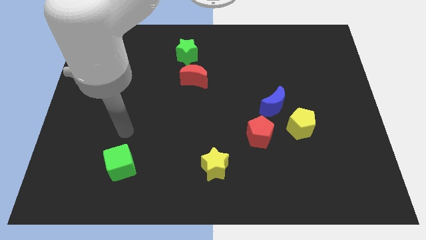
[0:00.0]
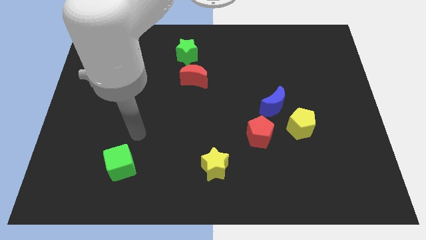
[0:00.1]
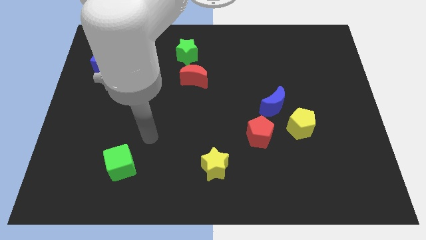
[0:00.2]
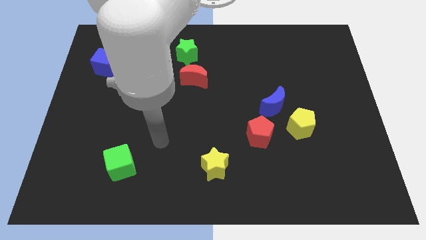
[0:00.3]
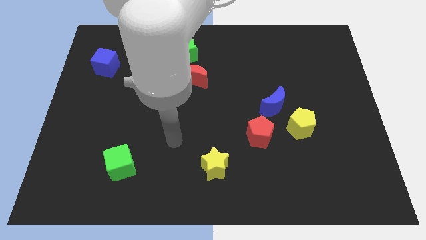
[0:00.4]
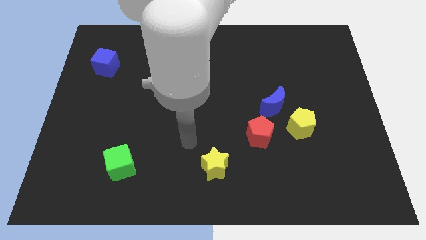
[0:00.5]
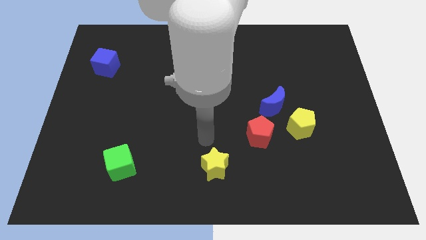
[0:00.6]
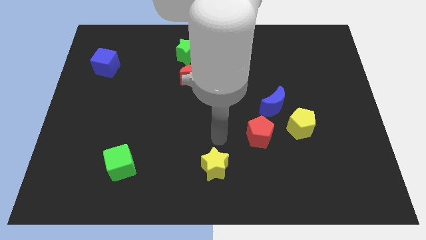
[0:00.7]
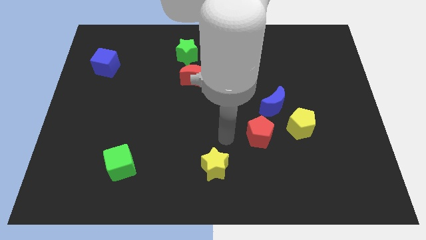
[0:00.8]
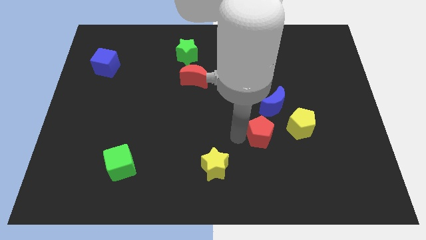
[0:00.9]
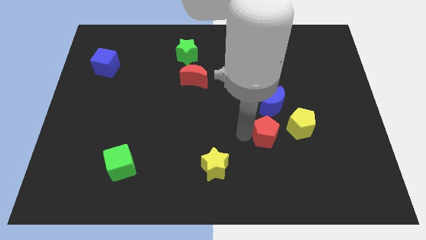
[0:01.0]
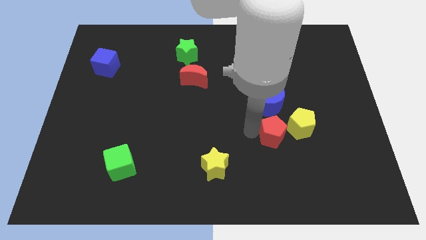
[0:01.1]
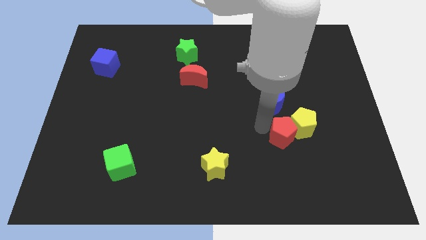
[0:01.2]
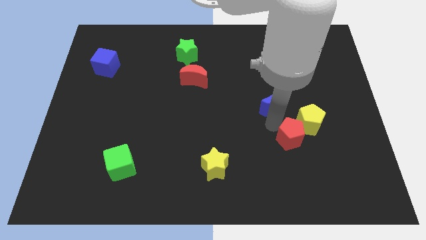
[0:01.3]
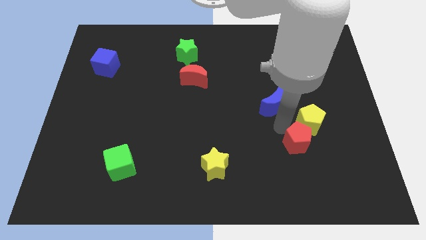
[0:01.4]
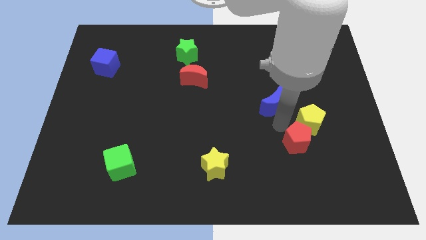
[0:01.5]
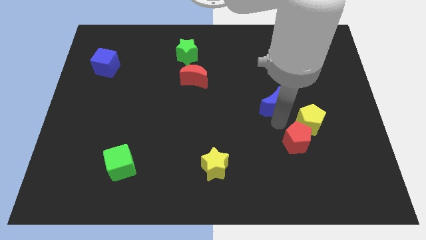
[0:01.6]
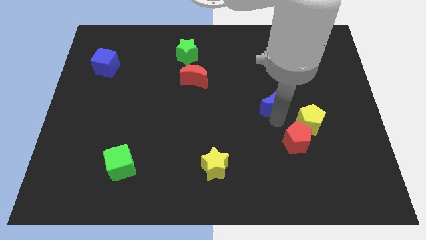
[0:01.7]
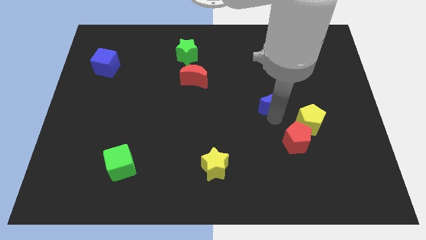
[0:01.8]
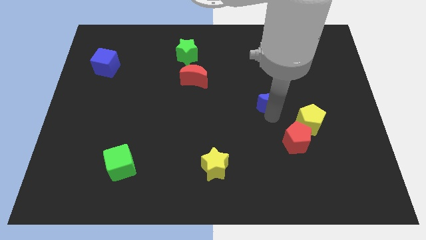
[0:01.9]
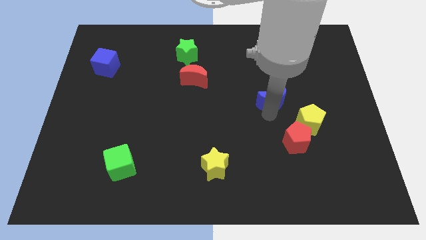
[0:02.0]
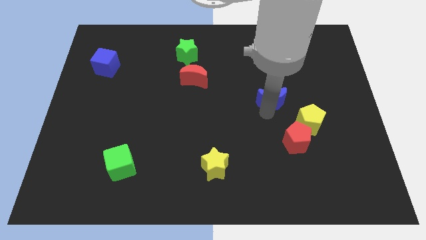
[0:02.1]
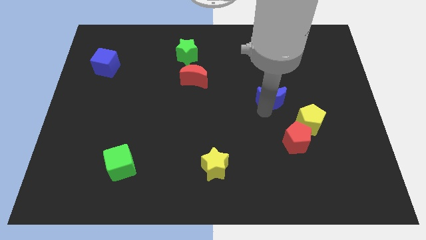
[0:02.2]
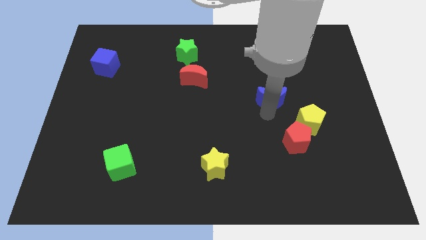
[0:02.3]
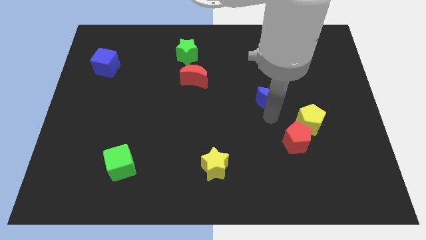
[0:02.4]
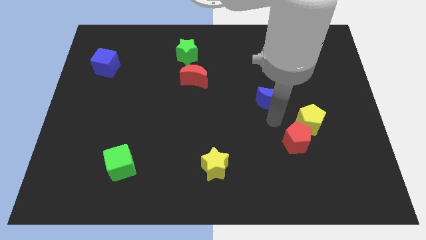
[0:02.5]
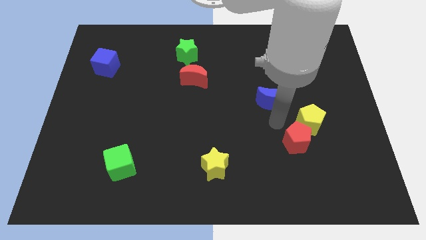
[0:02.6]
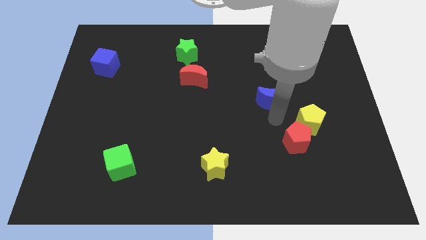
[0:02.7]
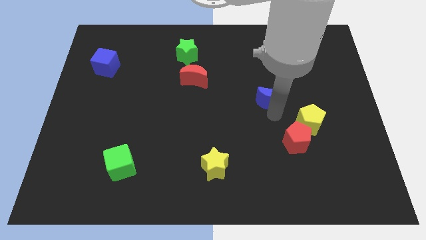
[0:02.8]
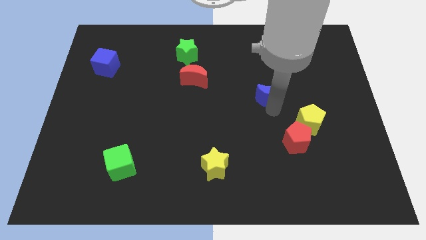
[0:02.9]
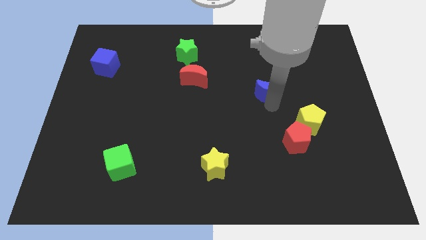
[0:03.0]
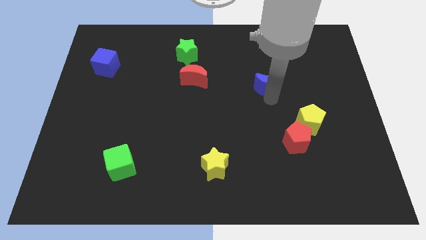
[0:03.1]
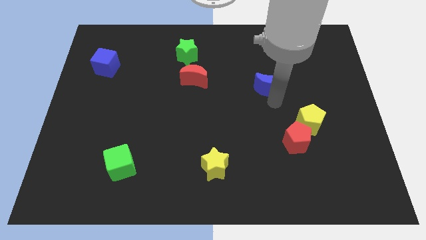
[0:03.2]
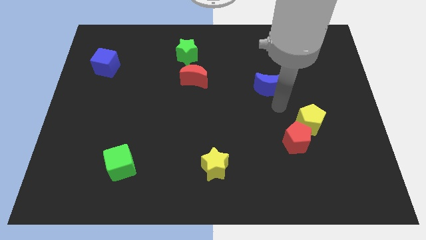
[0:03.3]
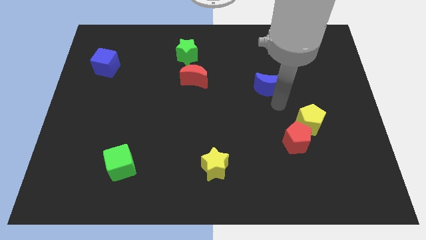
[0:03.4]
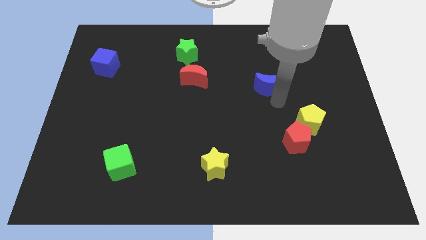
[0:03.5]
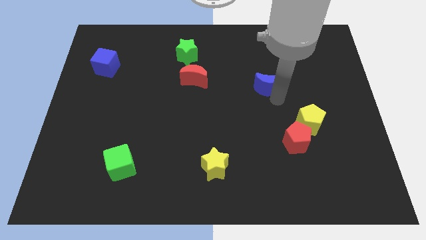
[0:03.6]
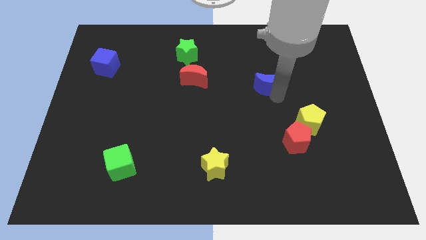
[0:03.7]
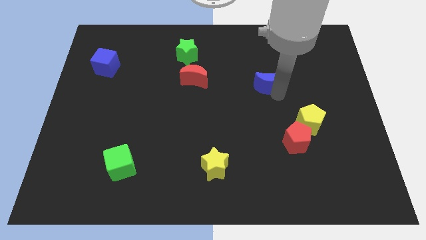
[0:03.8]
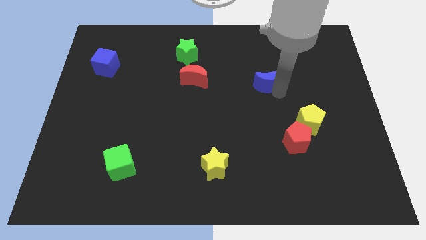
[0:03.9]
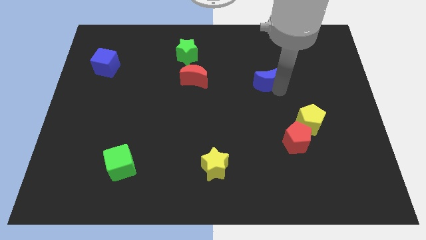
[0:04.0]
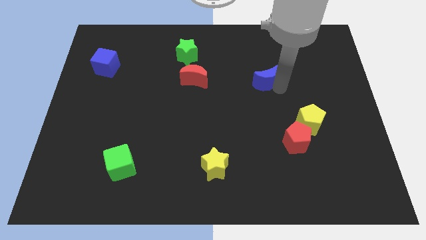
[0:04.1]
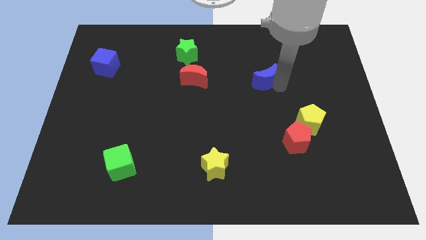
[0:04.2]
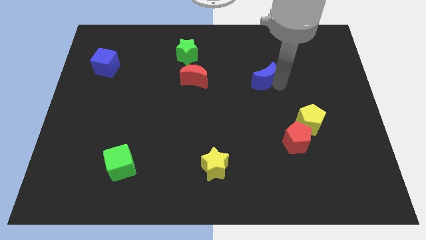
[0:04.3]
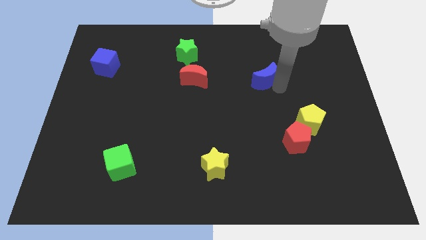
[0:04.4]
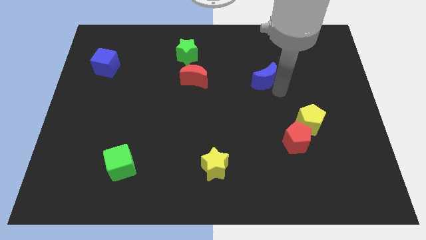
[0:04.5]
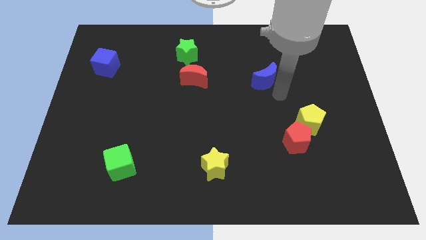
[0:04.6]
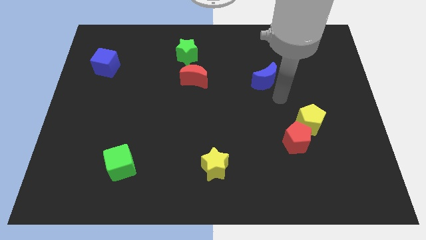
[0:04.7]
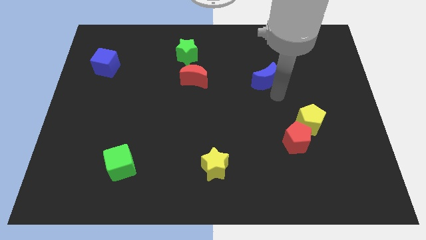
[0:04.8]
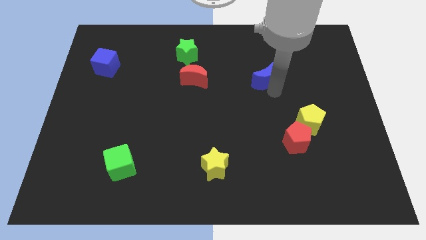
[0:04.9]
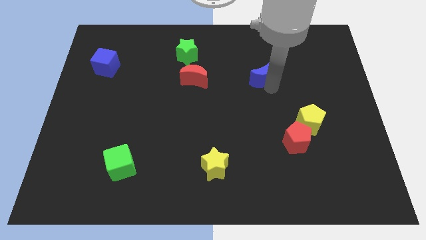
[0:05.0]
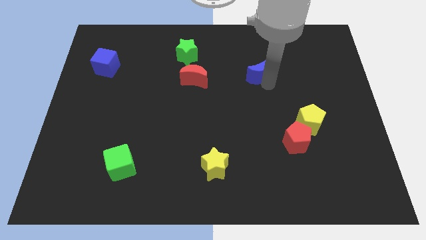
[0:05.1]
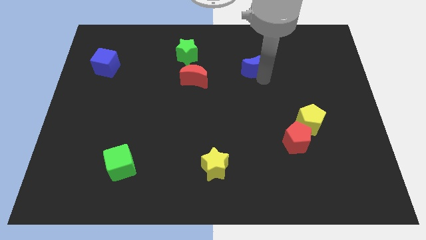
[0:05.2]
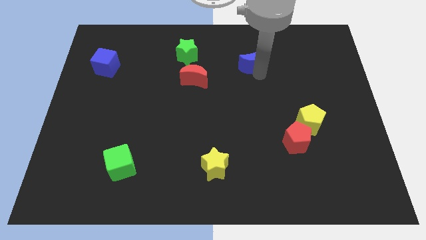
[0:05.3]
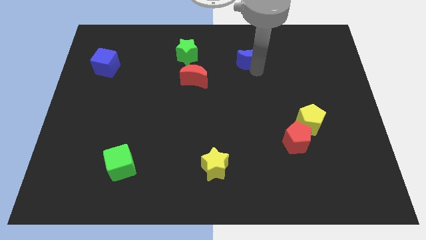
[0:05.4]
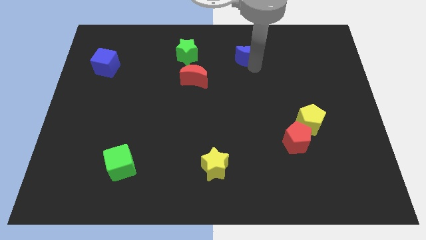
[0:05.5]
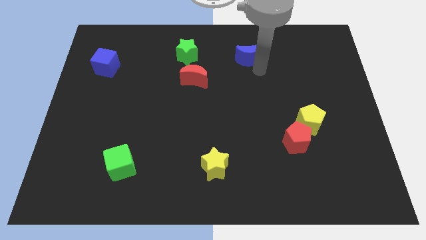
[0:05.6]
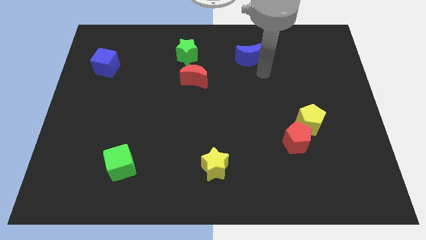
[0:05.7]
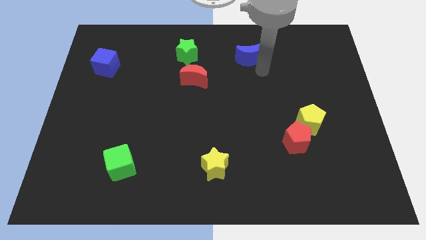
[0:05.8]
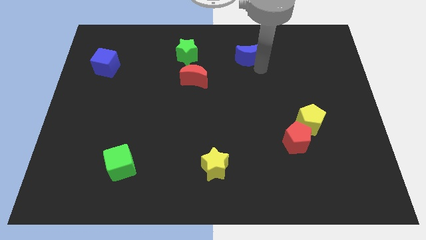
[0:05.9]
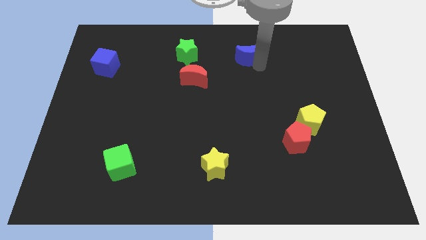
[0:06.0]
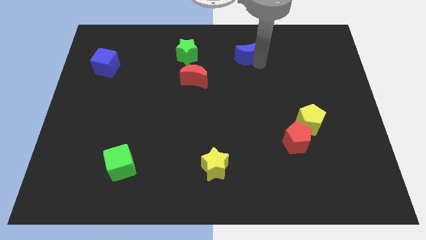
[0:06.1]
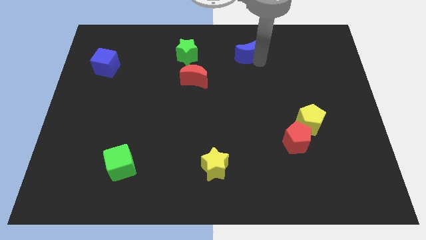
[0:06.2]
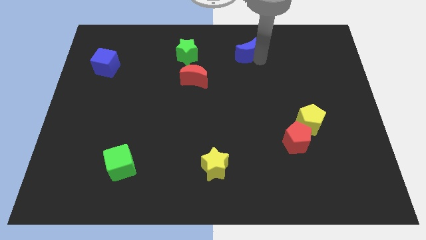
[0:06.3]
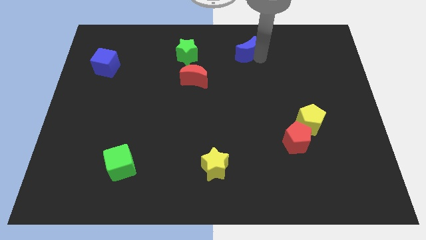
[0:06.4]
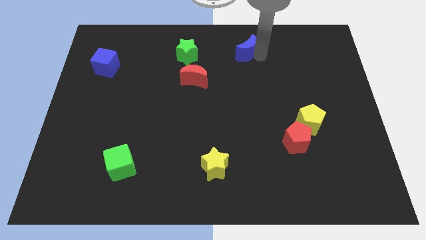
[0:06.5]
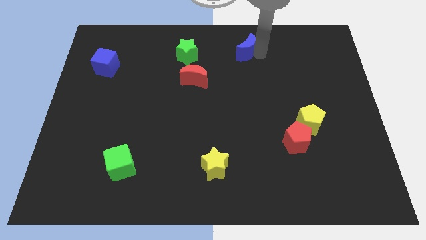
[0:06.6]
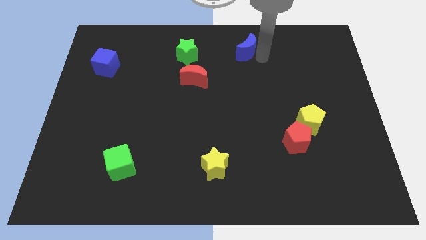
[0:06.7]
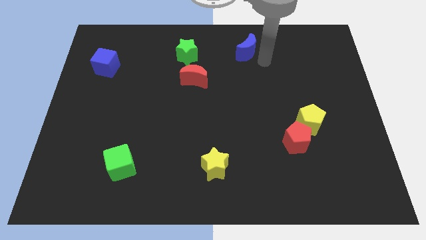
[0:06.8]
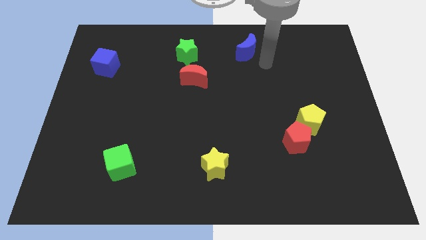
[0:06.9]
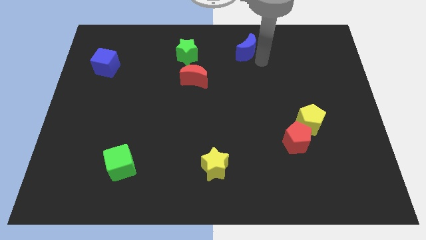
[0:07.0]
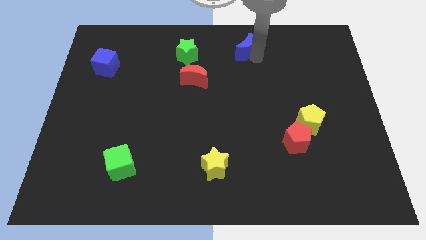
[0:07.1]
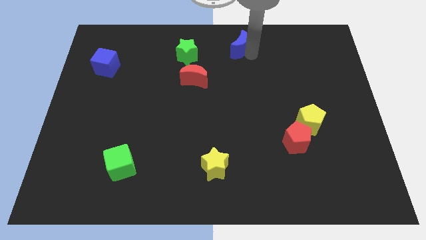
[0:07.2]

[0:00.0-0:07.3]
push the blue moon to the top side
